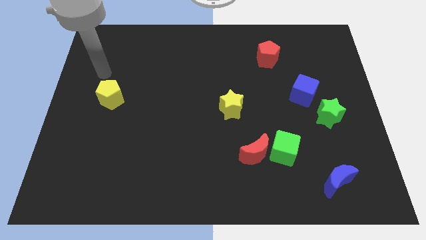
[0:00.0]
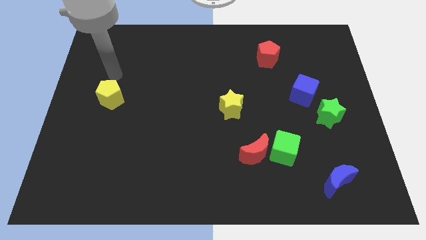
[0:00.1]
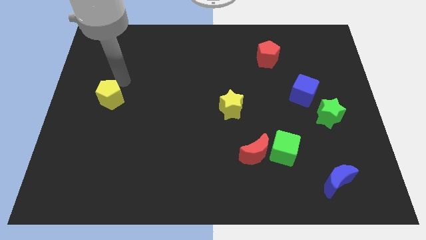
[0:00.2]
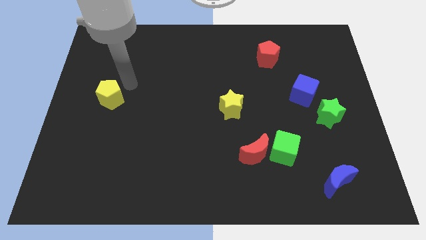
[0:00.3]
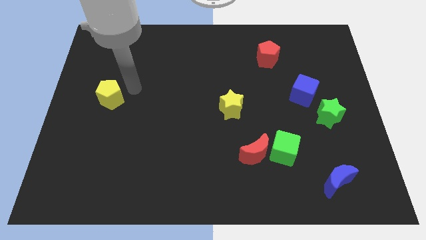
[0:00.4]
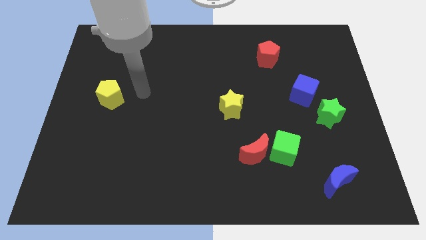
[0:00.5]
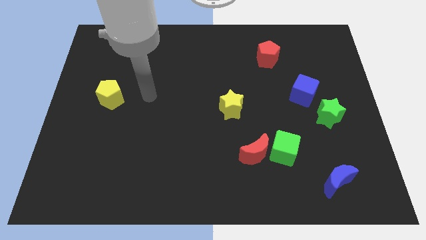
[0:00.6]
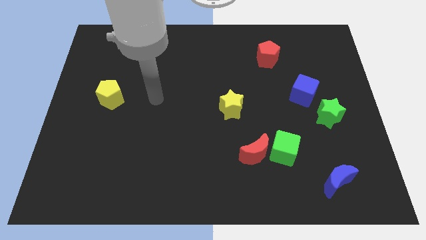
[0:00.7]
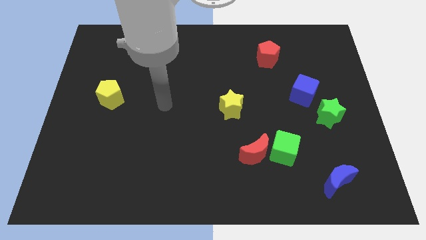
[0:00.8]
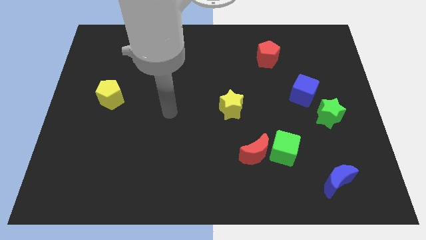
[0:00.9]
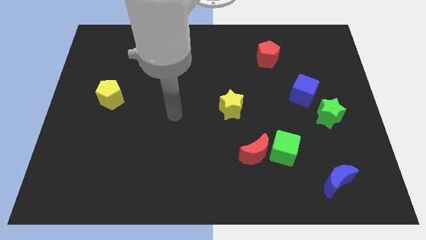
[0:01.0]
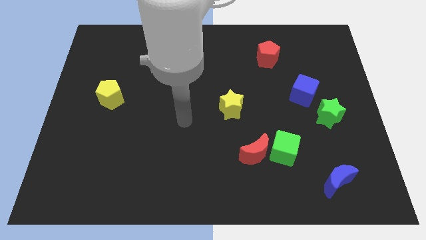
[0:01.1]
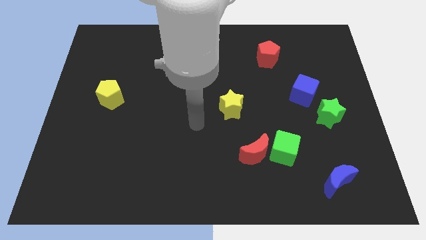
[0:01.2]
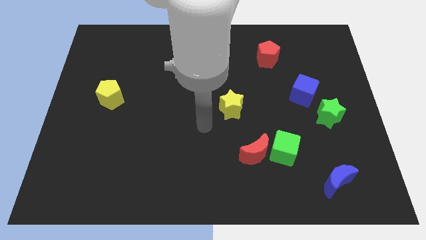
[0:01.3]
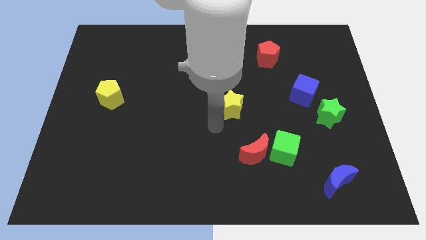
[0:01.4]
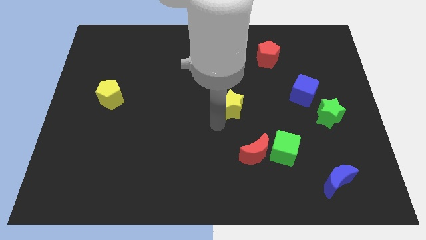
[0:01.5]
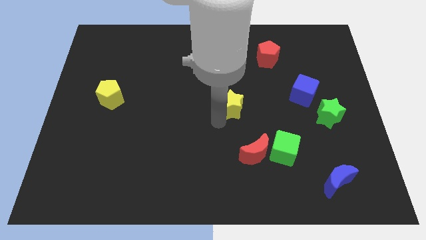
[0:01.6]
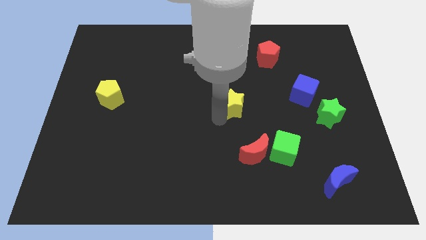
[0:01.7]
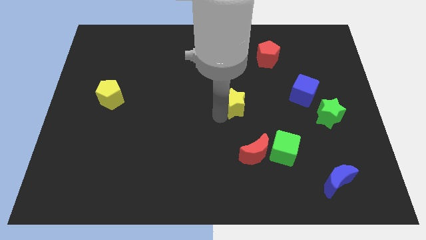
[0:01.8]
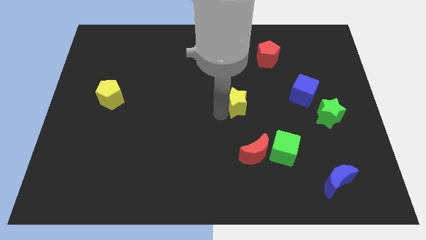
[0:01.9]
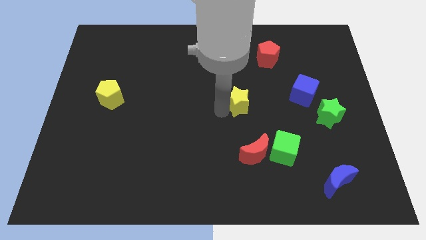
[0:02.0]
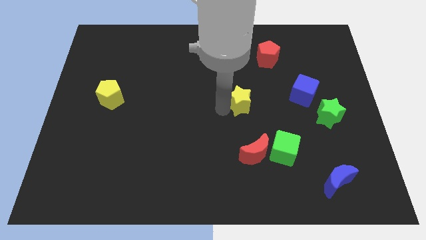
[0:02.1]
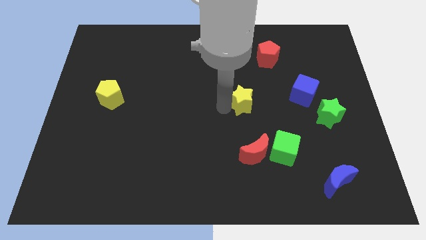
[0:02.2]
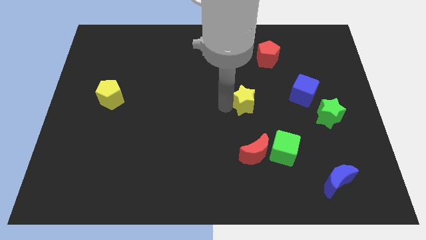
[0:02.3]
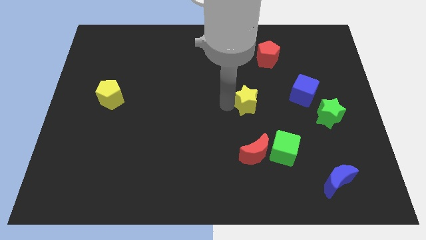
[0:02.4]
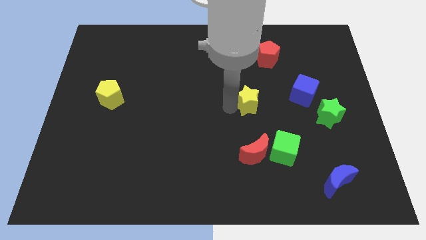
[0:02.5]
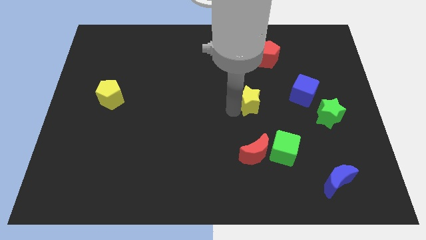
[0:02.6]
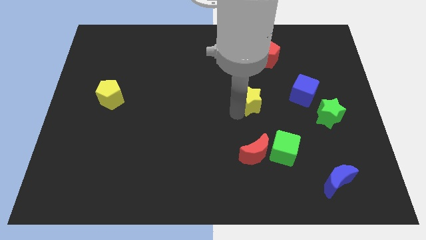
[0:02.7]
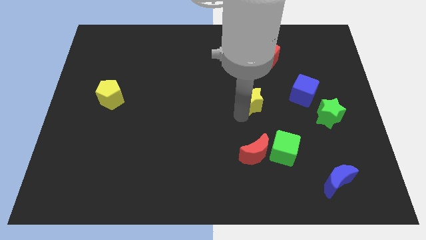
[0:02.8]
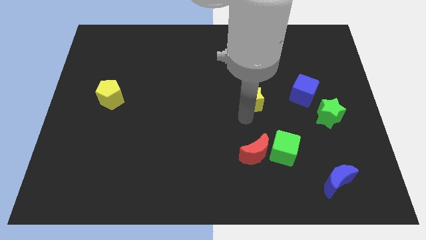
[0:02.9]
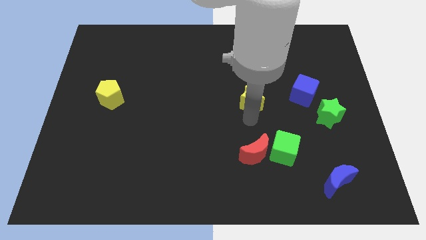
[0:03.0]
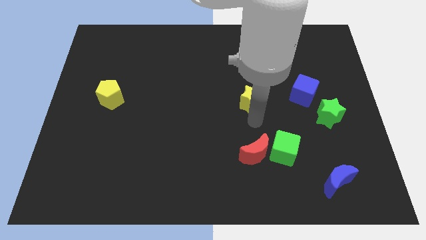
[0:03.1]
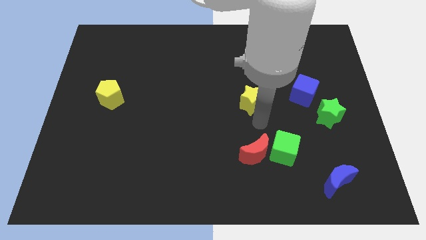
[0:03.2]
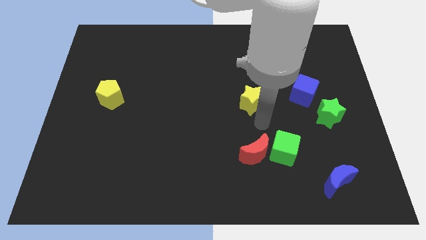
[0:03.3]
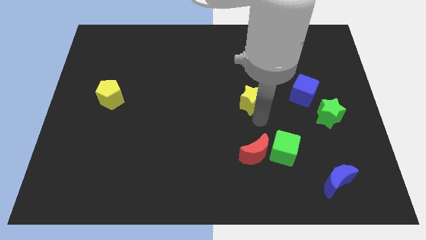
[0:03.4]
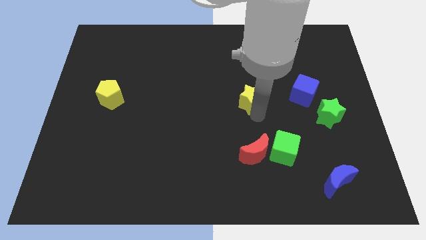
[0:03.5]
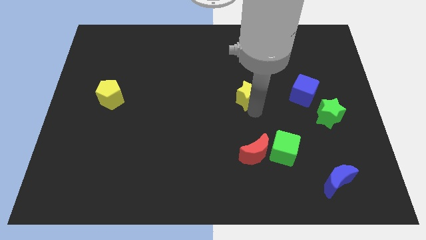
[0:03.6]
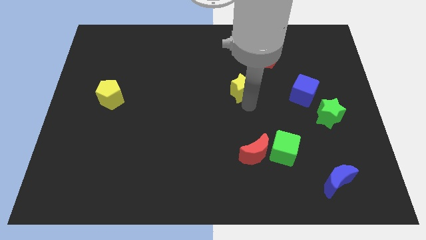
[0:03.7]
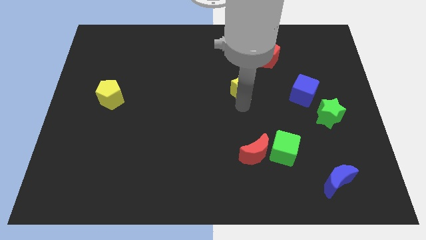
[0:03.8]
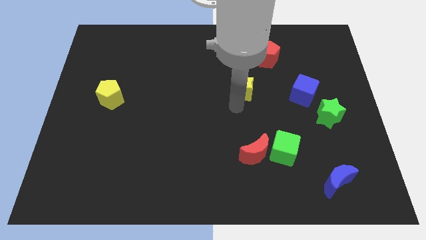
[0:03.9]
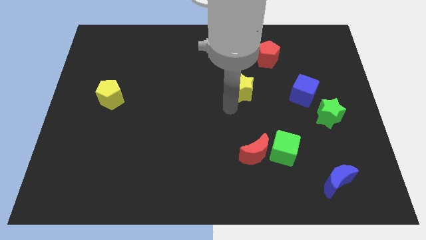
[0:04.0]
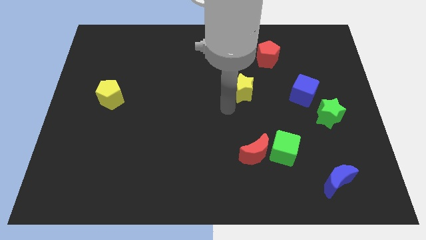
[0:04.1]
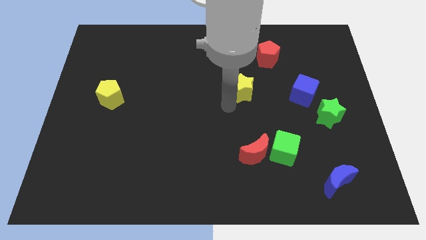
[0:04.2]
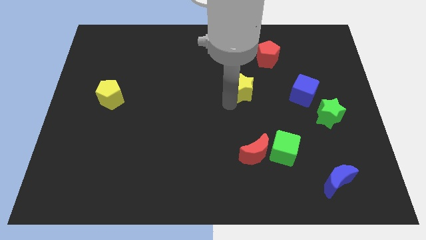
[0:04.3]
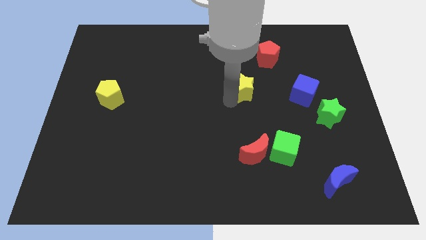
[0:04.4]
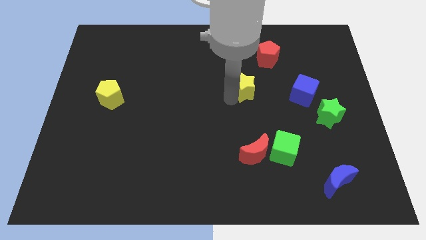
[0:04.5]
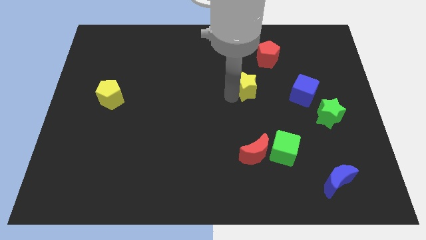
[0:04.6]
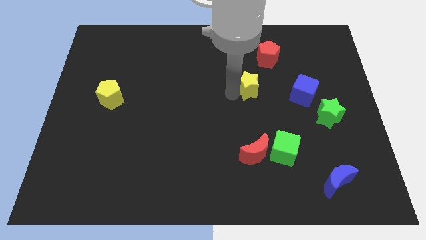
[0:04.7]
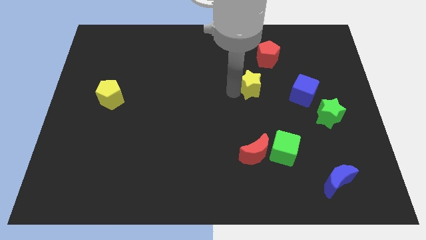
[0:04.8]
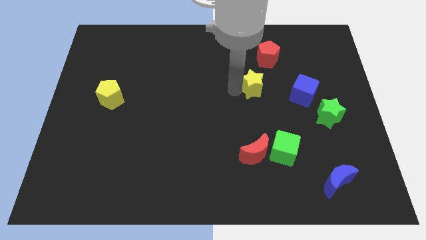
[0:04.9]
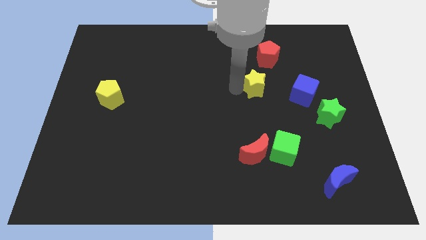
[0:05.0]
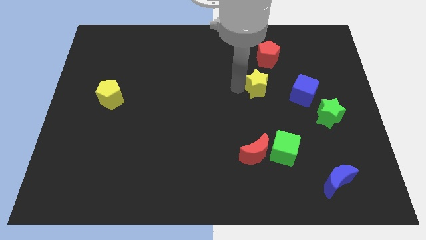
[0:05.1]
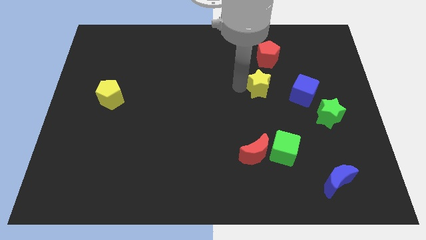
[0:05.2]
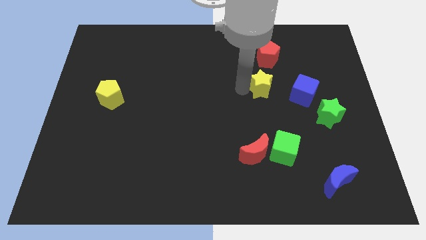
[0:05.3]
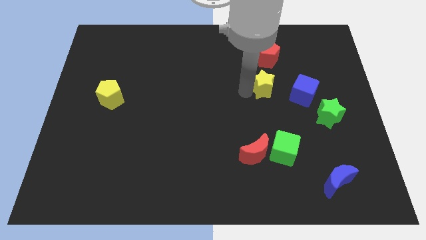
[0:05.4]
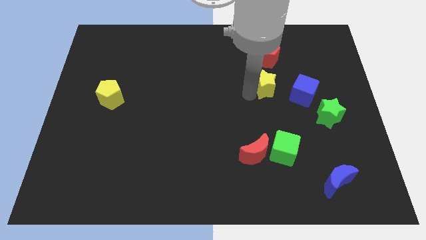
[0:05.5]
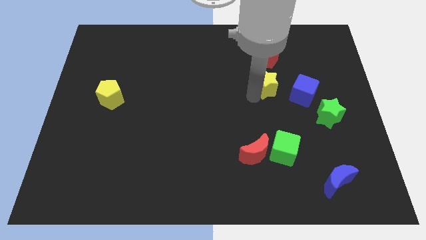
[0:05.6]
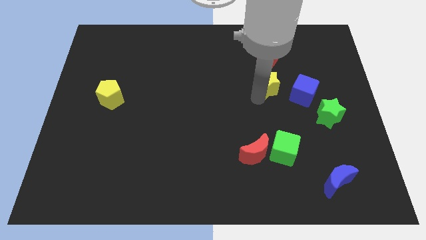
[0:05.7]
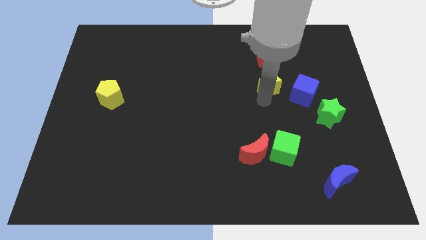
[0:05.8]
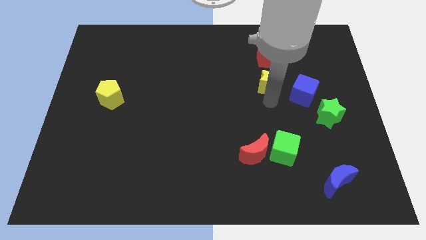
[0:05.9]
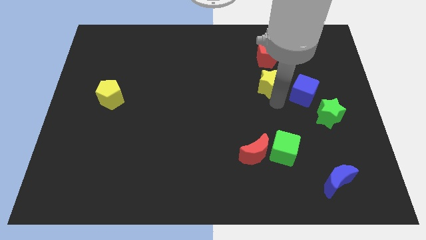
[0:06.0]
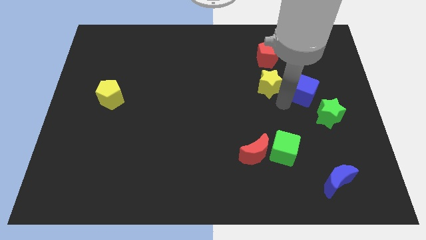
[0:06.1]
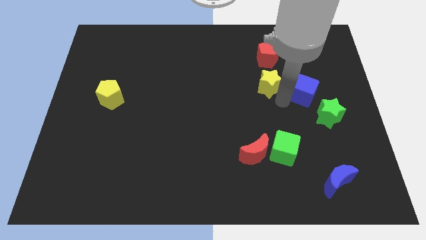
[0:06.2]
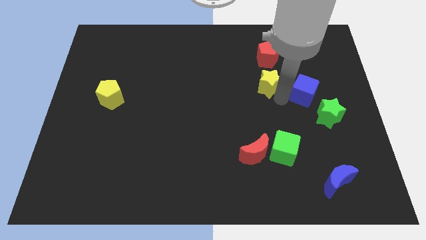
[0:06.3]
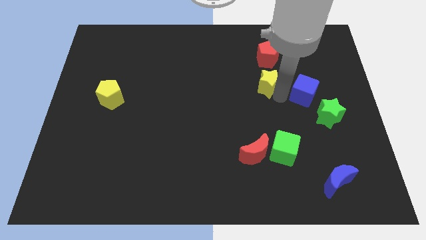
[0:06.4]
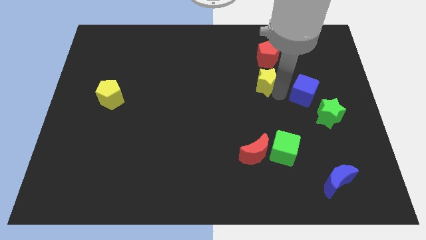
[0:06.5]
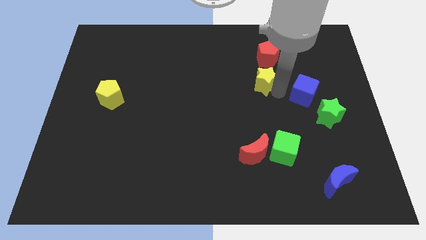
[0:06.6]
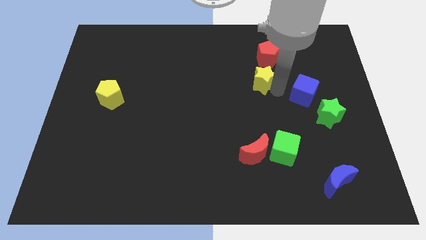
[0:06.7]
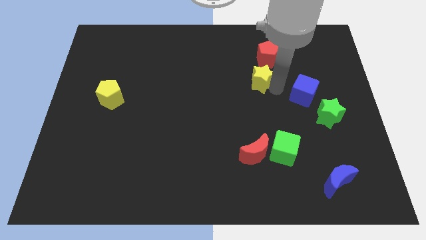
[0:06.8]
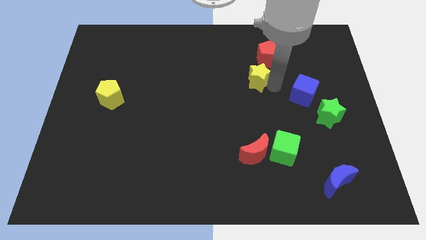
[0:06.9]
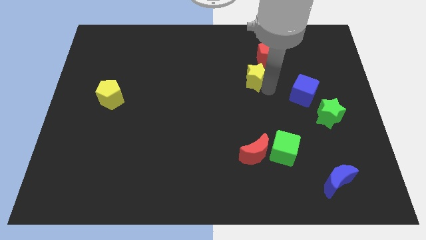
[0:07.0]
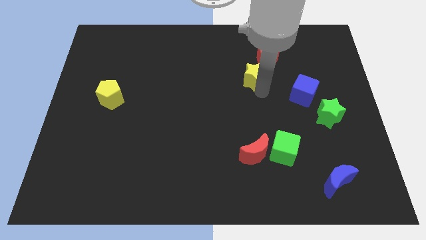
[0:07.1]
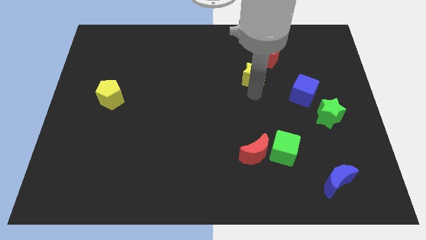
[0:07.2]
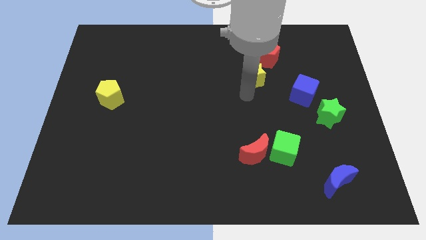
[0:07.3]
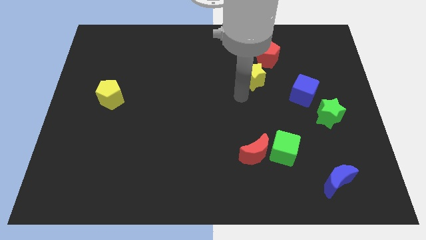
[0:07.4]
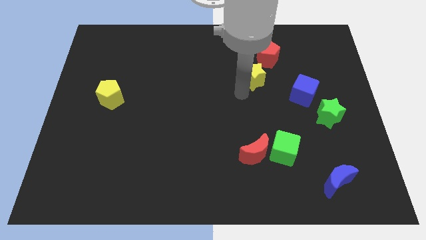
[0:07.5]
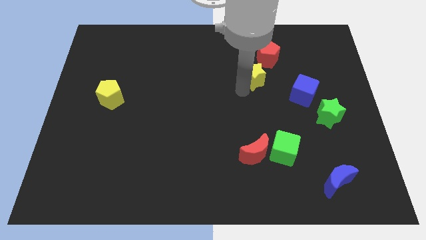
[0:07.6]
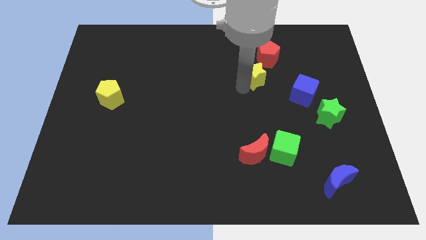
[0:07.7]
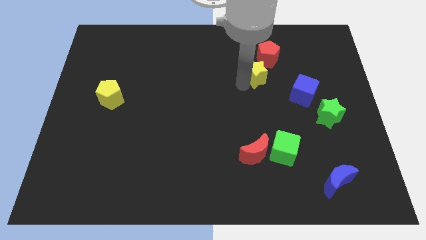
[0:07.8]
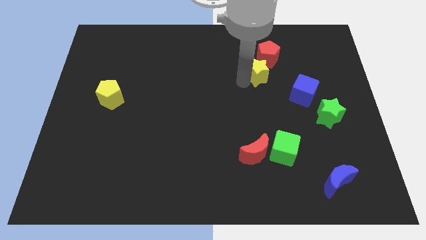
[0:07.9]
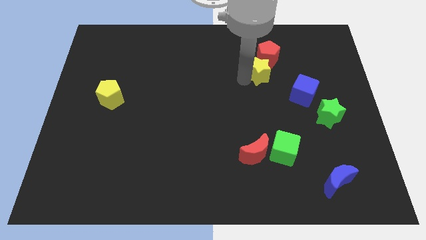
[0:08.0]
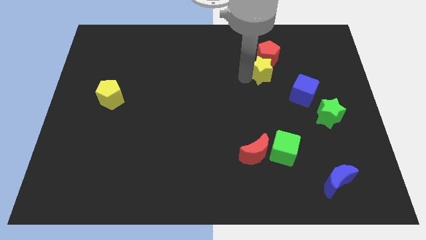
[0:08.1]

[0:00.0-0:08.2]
move the yellow star close to the red pentagon
